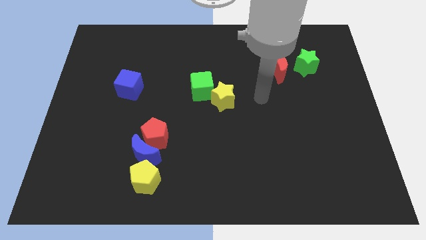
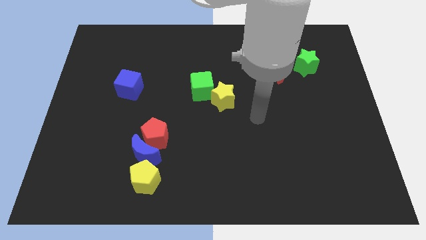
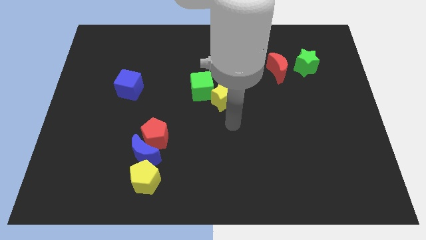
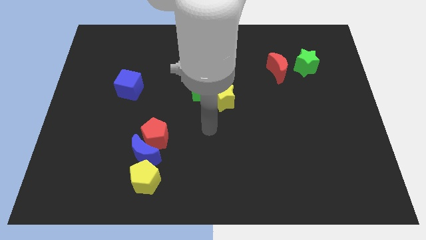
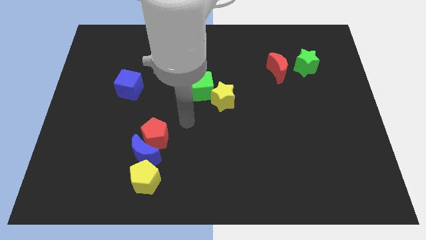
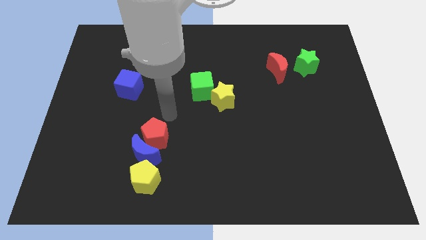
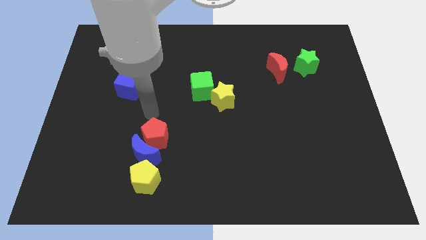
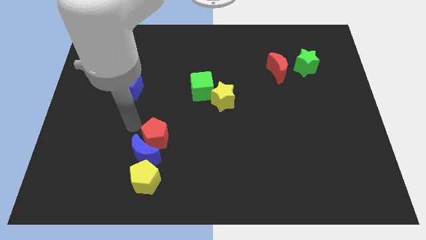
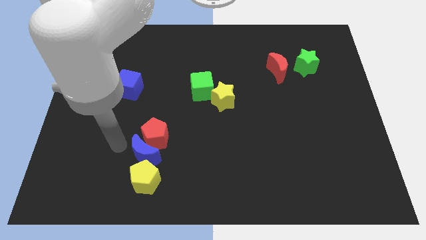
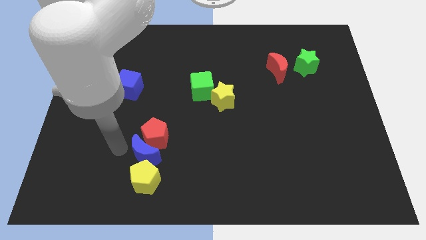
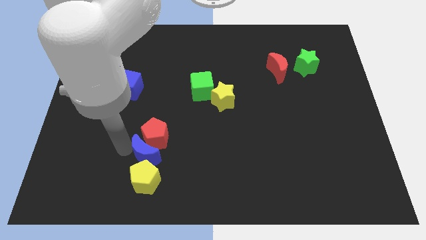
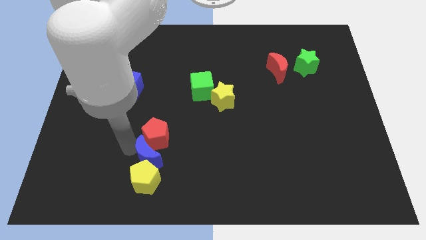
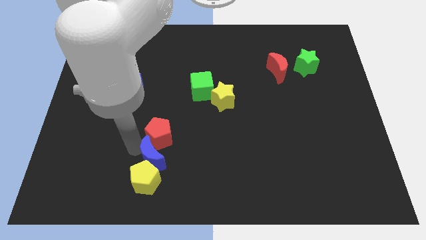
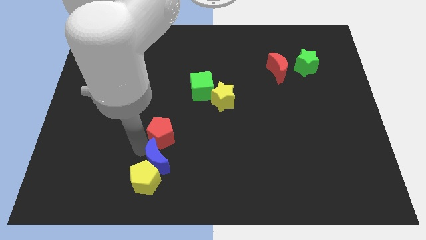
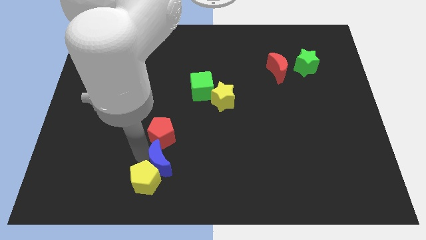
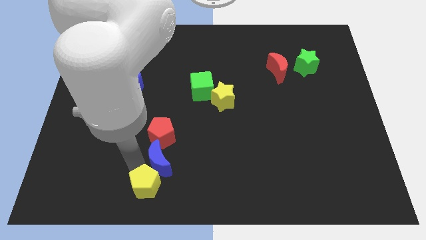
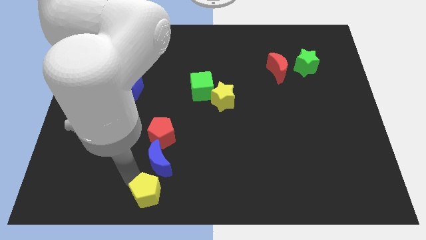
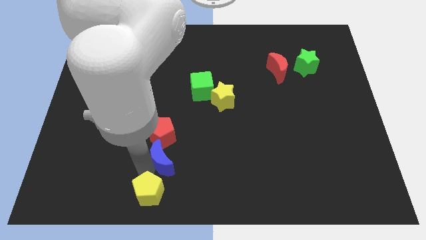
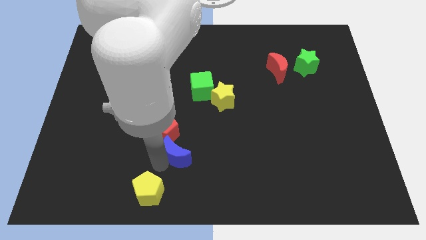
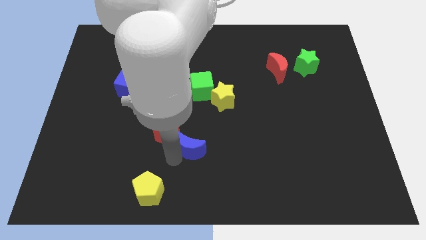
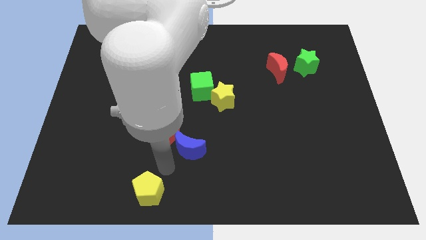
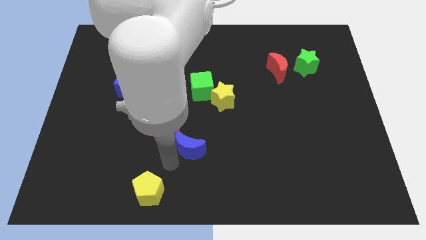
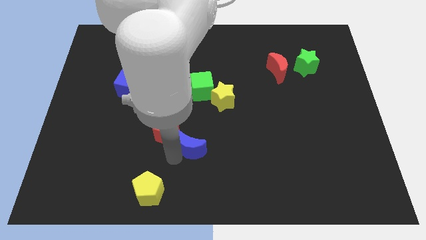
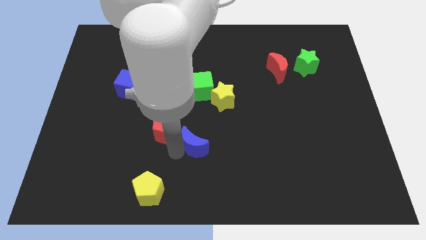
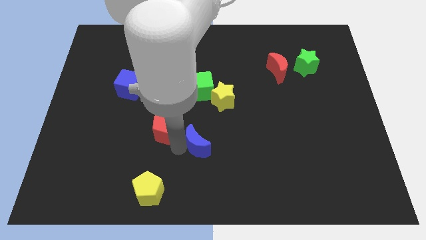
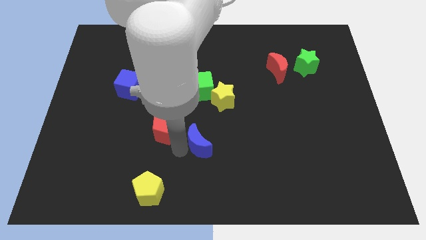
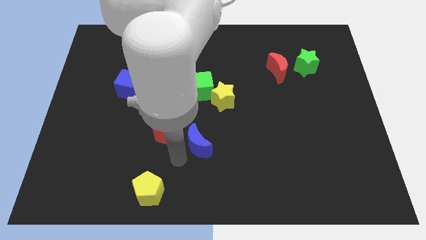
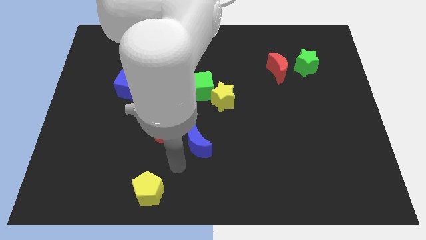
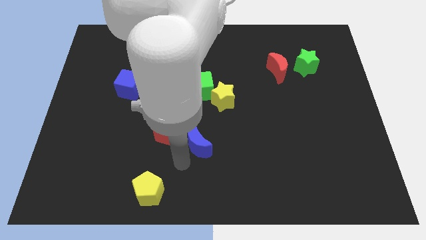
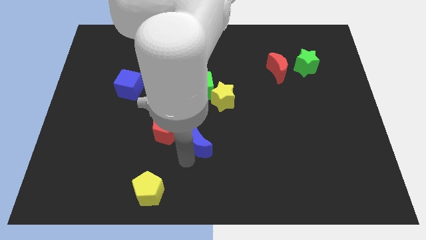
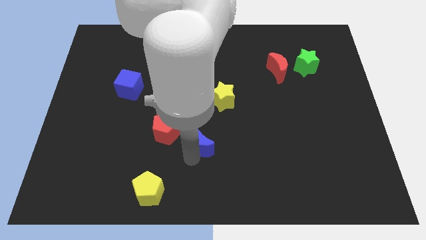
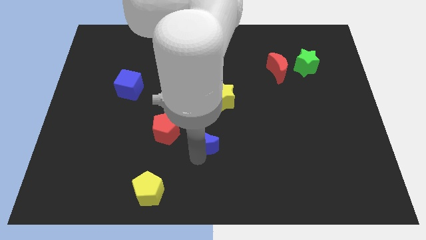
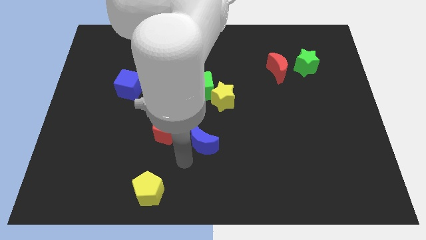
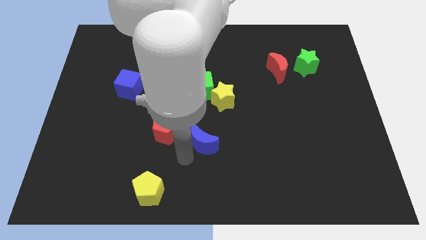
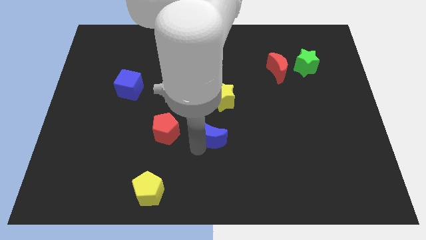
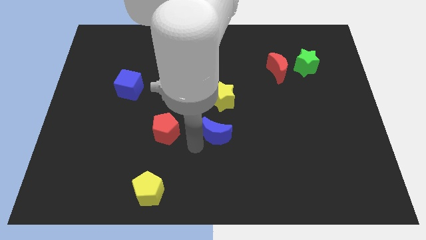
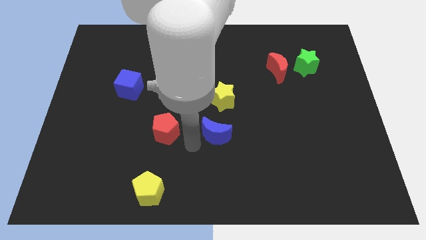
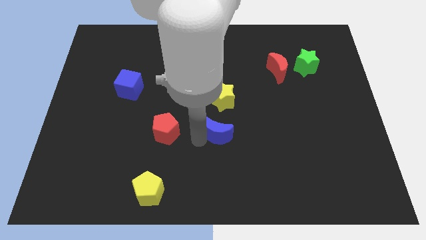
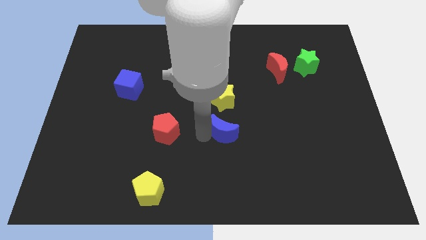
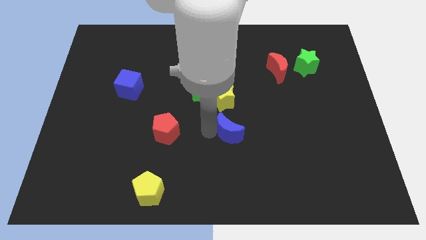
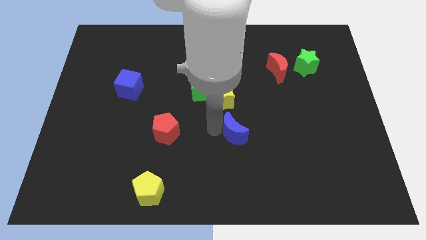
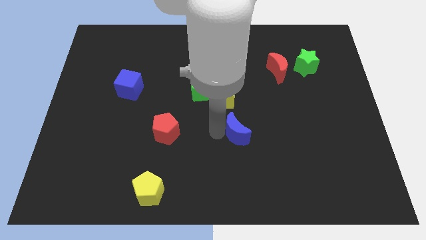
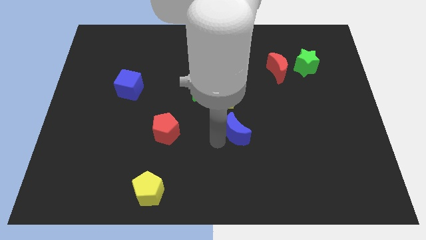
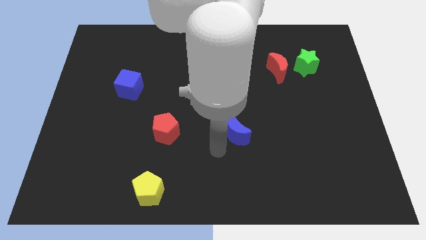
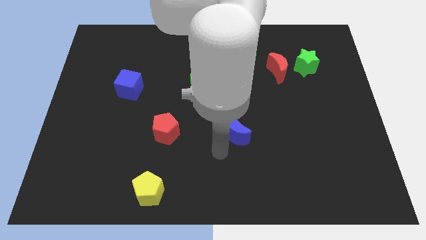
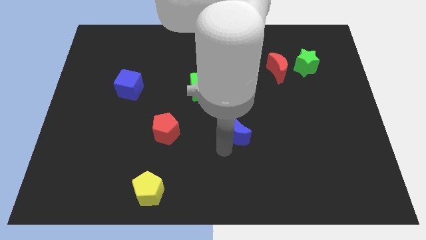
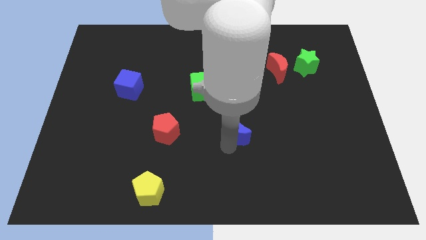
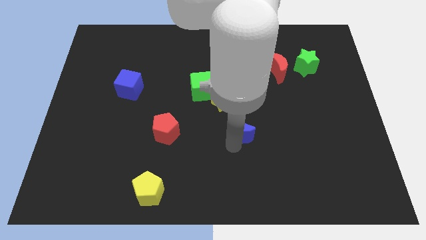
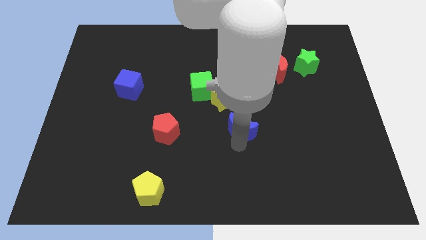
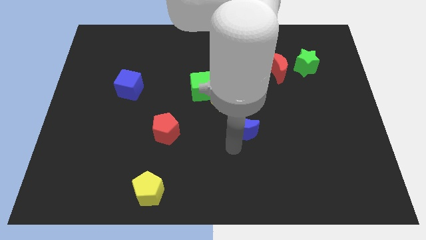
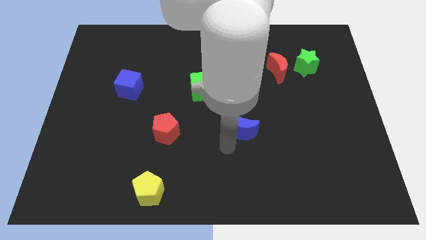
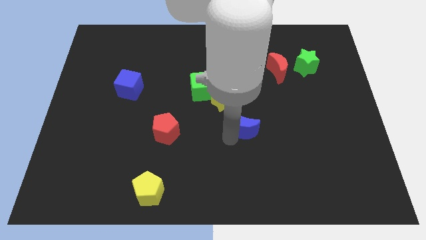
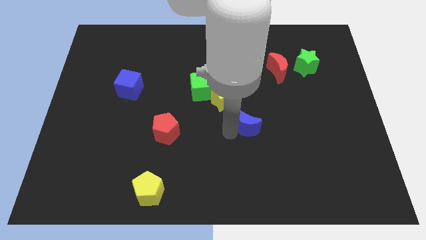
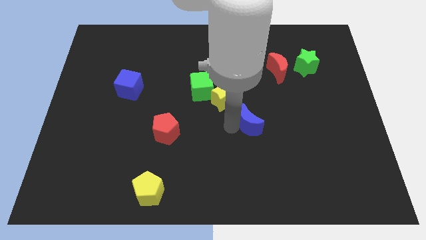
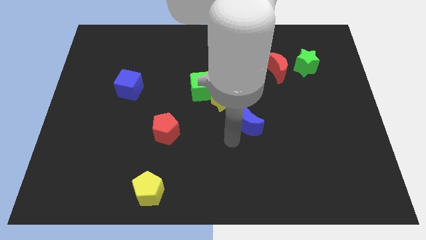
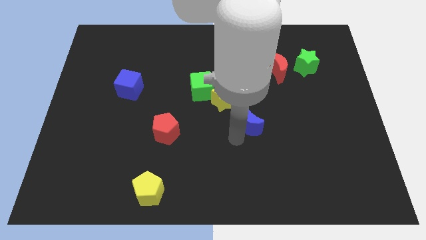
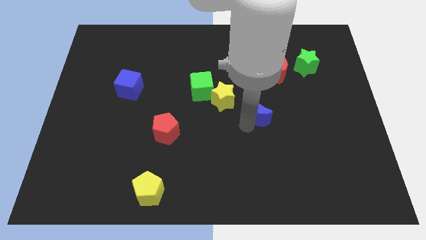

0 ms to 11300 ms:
put the blue moon just right of the yellow star

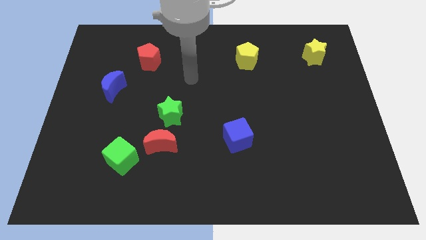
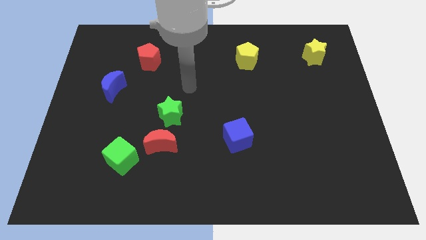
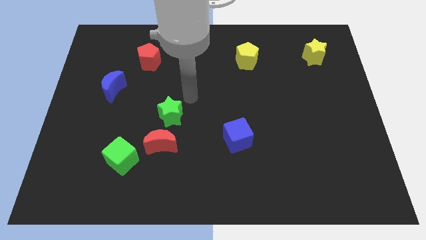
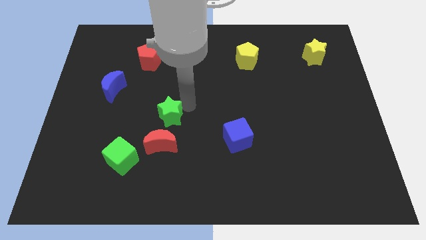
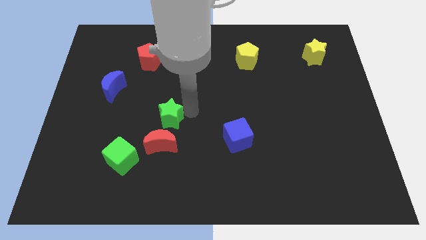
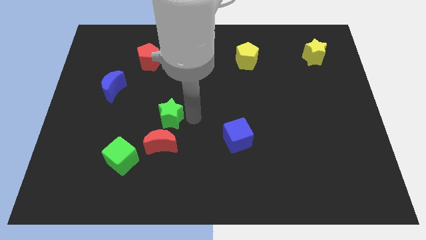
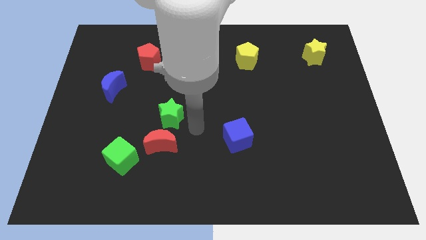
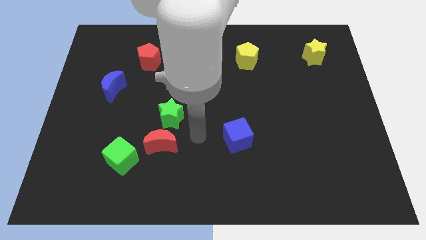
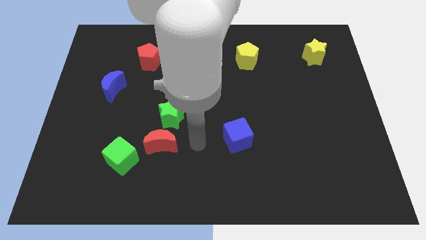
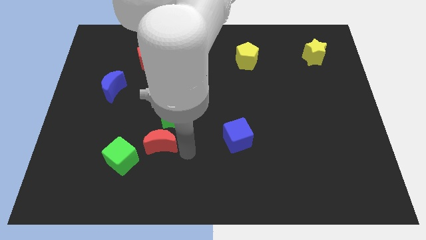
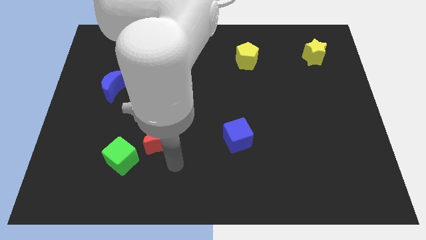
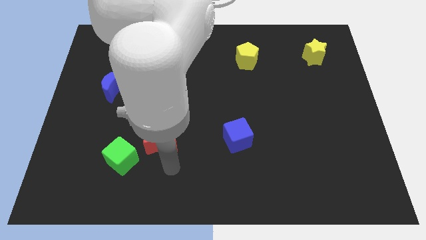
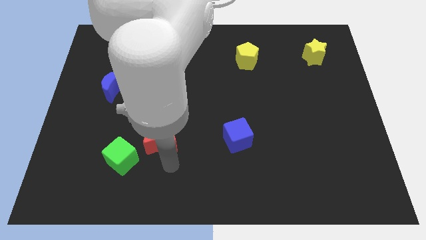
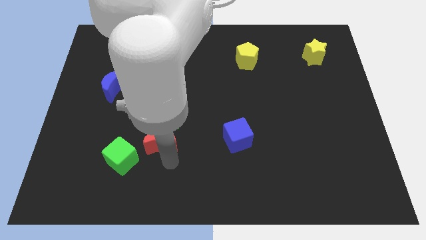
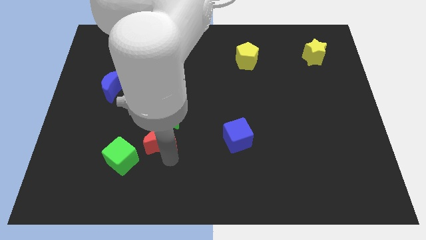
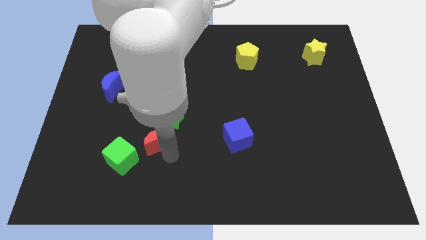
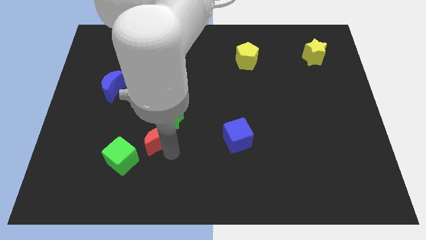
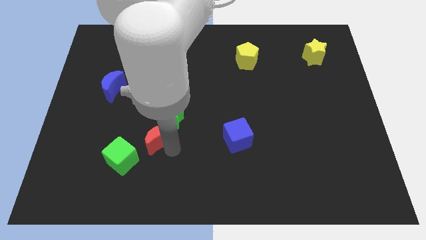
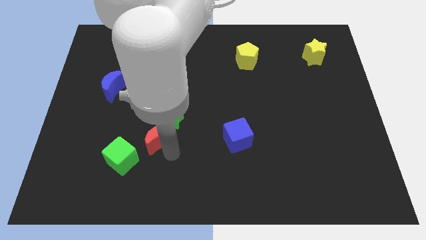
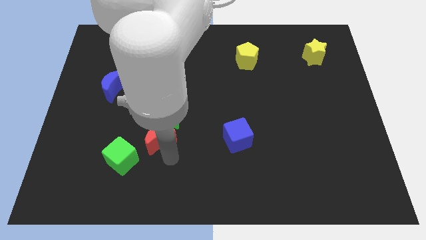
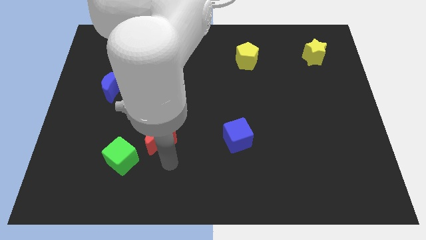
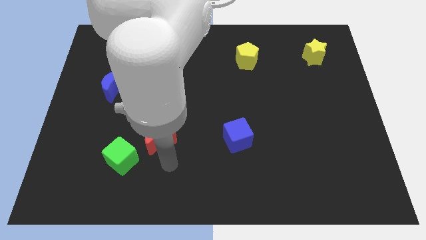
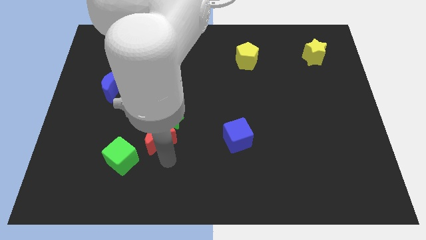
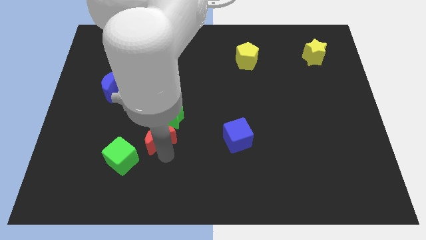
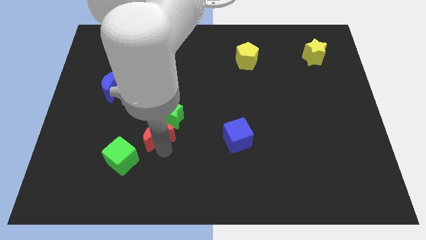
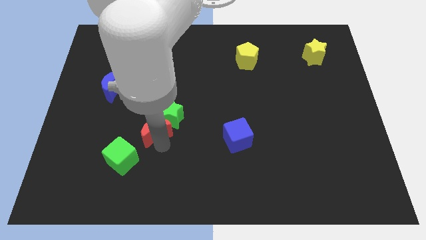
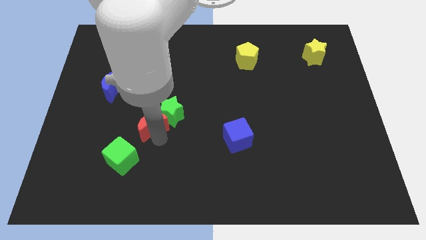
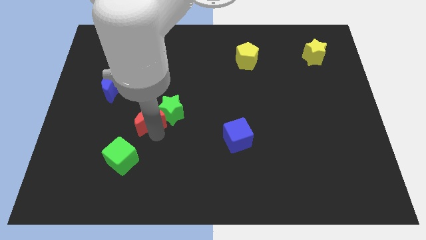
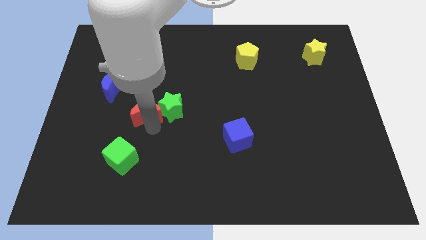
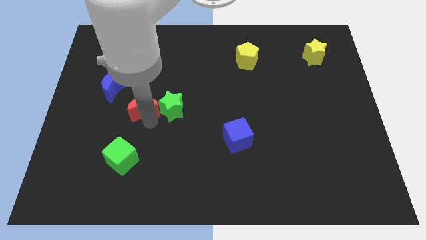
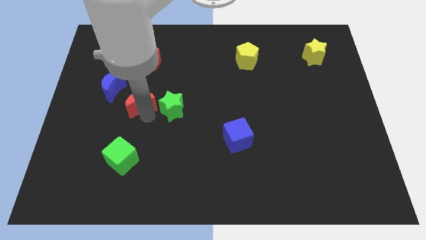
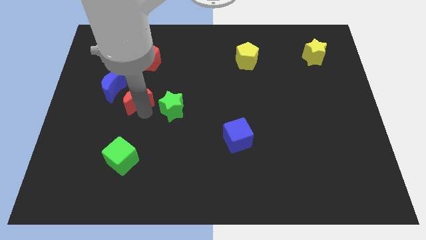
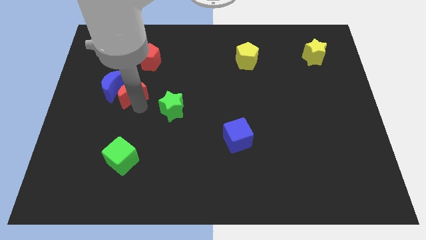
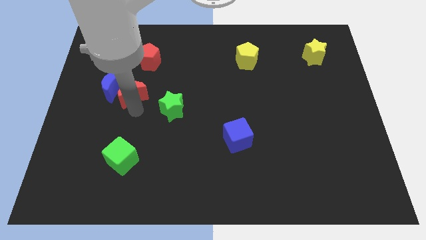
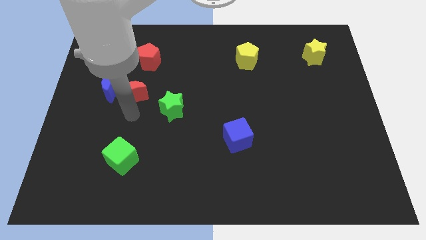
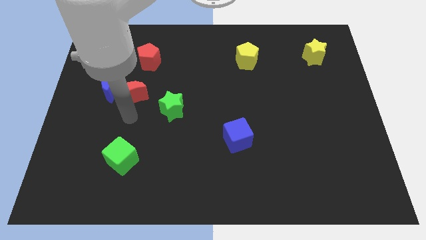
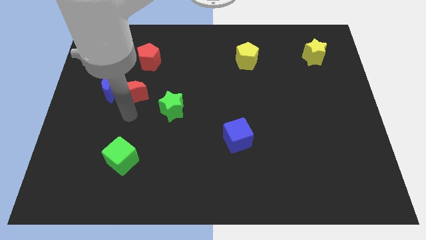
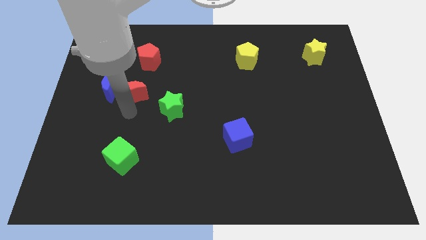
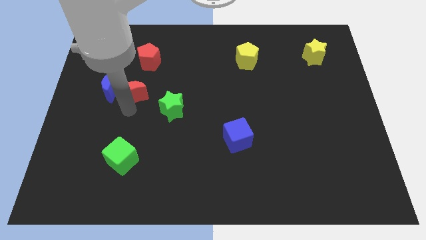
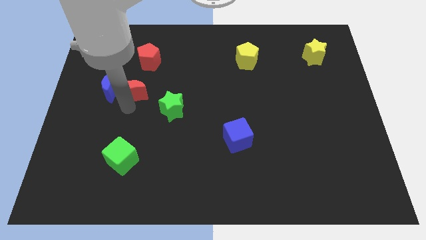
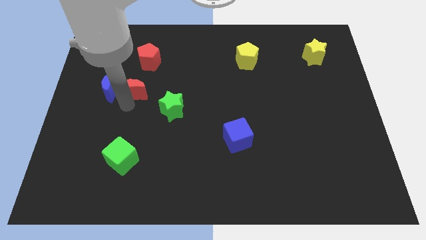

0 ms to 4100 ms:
put the red moon to the top right side of the blue moon
